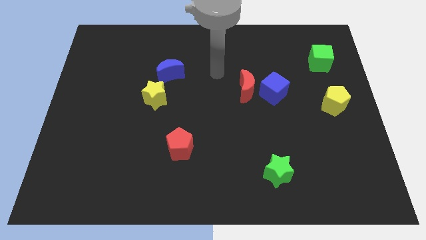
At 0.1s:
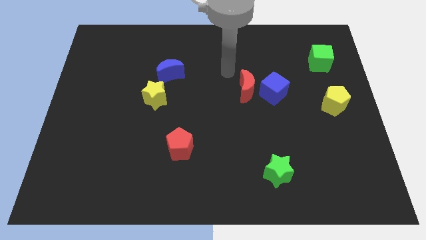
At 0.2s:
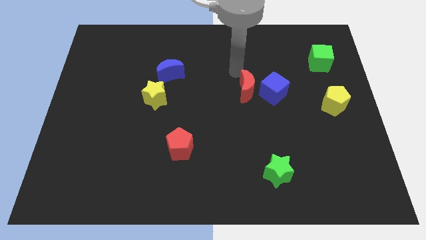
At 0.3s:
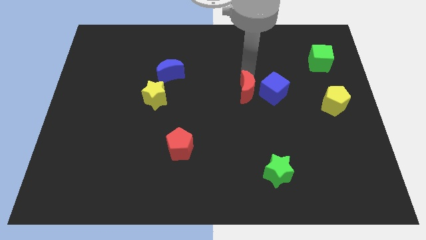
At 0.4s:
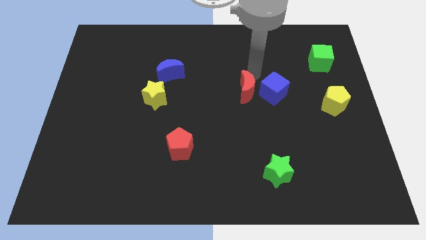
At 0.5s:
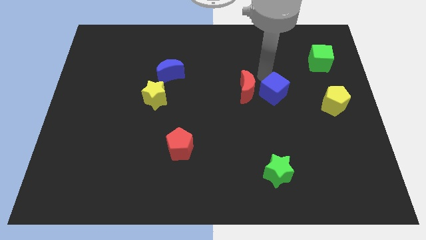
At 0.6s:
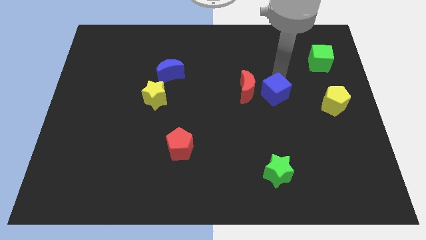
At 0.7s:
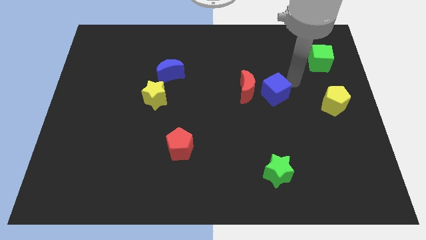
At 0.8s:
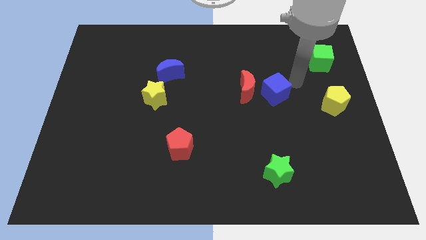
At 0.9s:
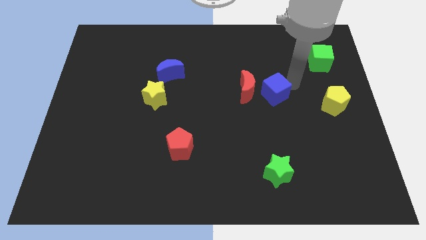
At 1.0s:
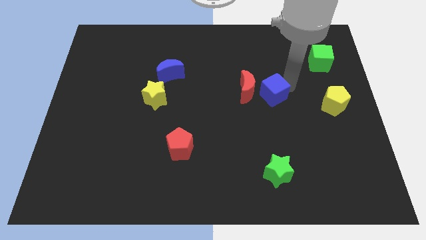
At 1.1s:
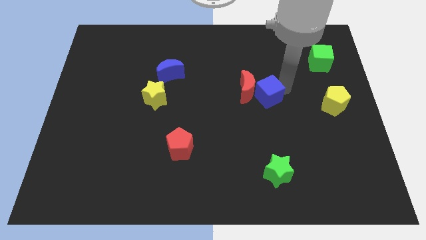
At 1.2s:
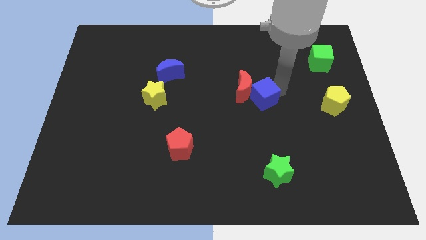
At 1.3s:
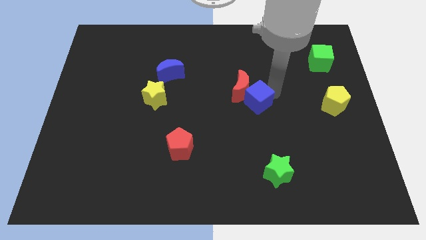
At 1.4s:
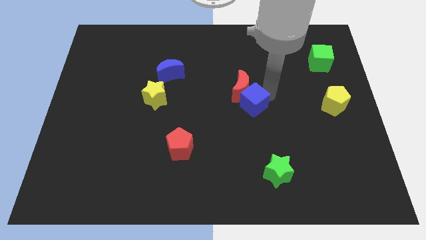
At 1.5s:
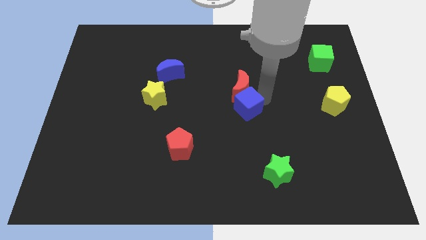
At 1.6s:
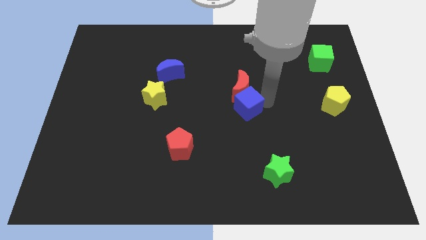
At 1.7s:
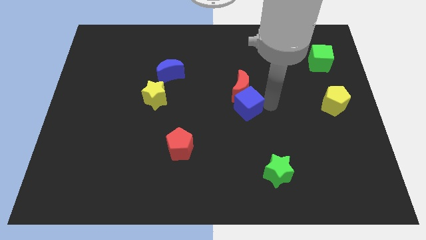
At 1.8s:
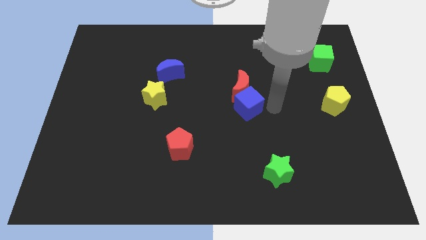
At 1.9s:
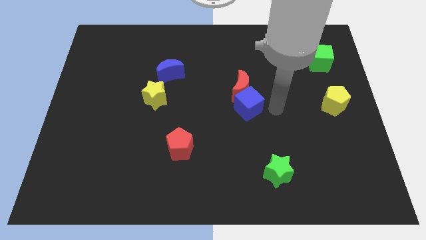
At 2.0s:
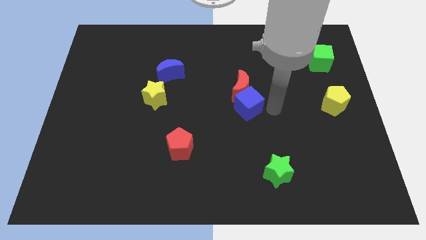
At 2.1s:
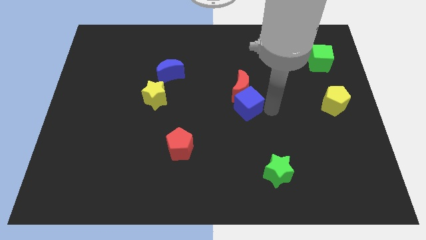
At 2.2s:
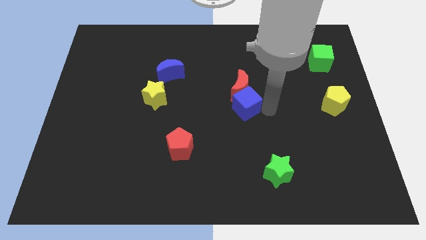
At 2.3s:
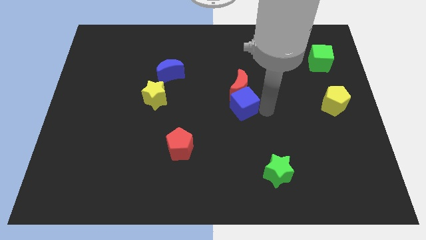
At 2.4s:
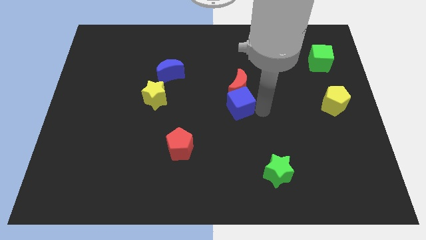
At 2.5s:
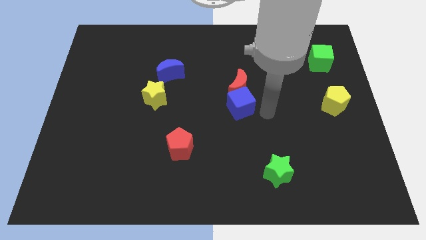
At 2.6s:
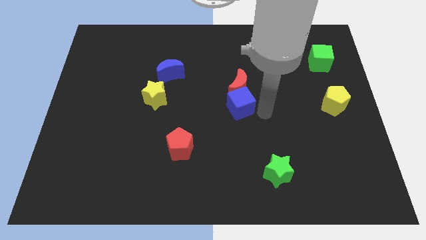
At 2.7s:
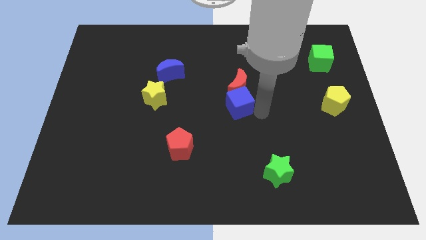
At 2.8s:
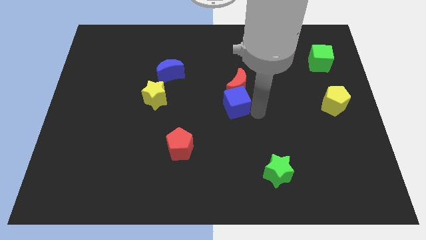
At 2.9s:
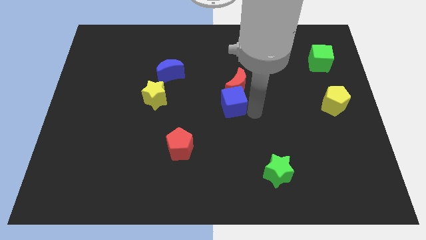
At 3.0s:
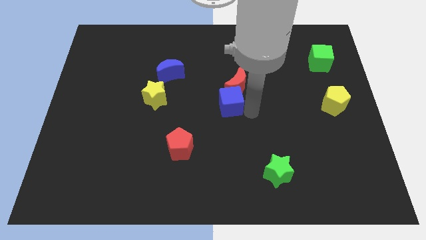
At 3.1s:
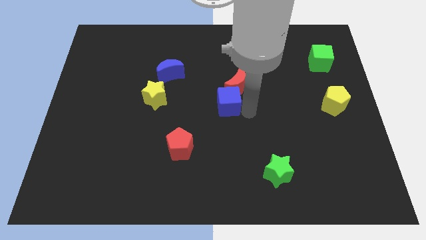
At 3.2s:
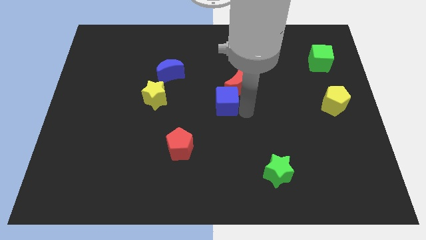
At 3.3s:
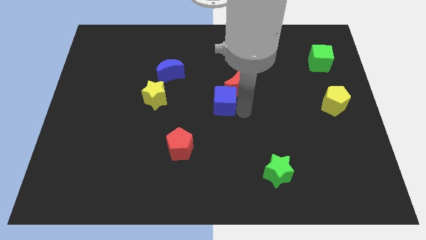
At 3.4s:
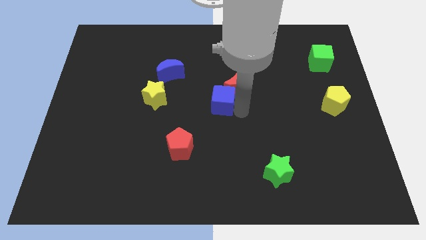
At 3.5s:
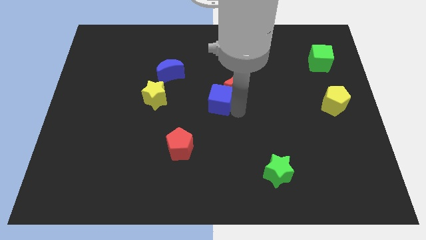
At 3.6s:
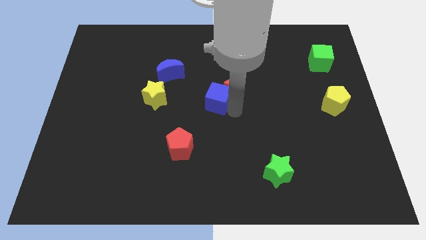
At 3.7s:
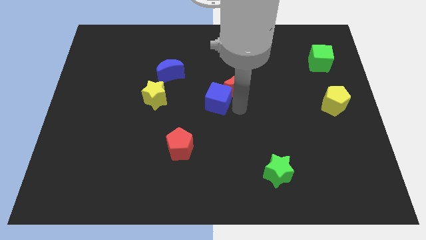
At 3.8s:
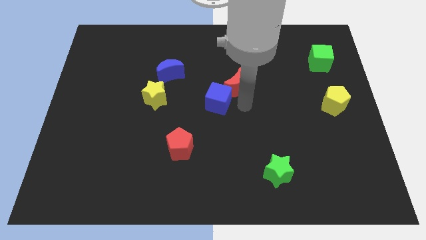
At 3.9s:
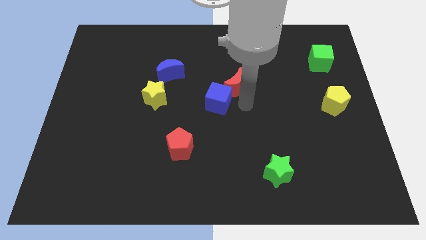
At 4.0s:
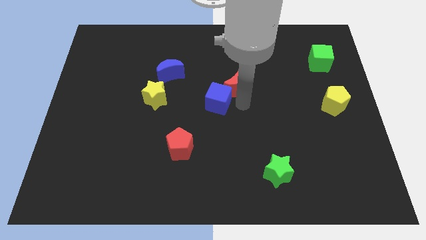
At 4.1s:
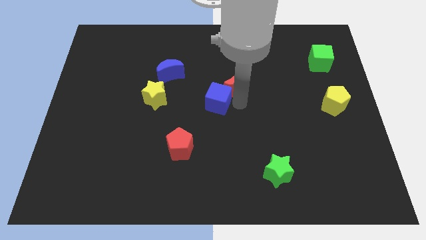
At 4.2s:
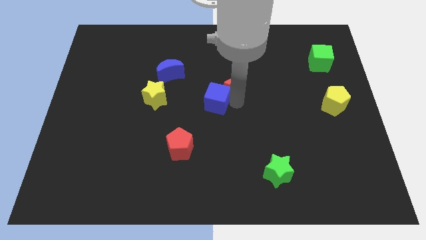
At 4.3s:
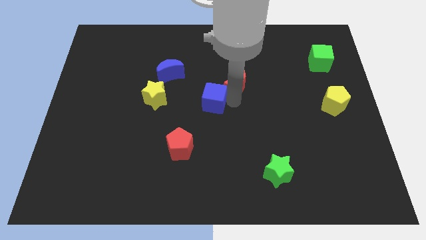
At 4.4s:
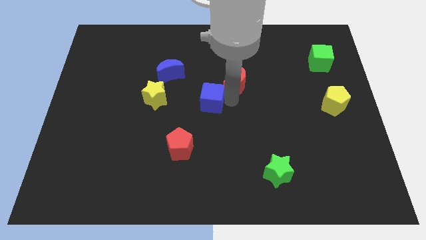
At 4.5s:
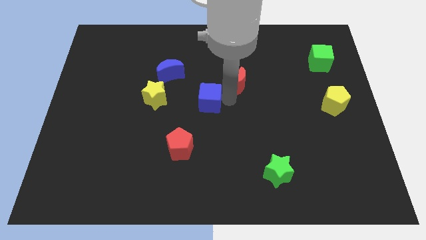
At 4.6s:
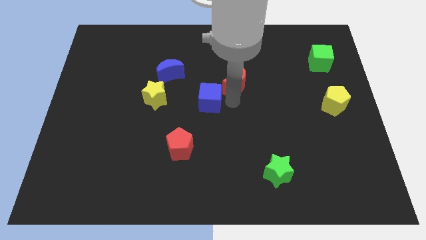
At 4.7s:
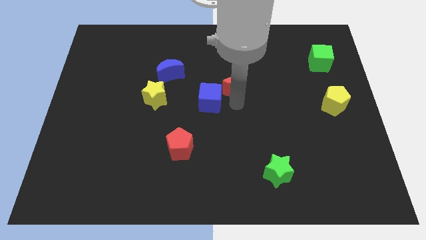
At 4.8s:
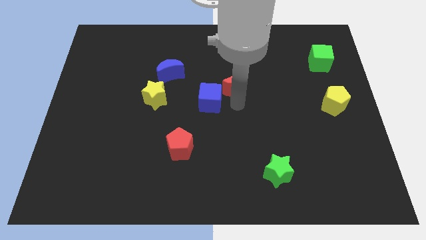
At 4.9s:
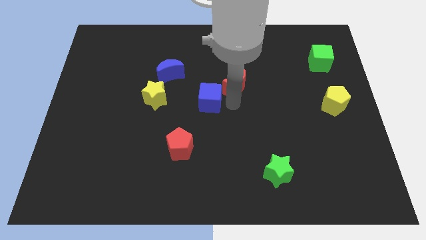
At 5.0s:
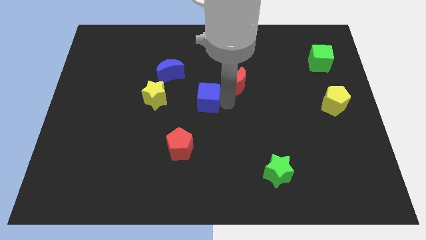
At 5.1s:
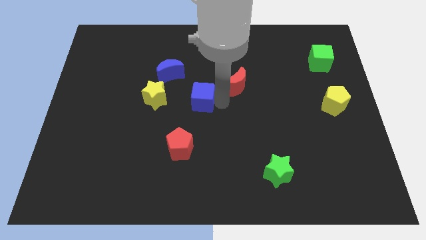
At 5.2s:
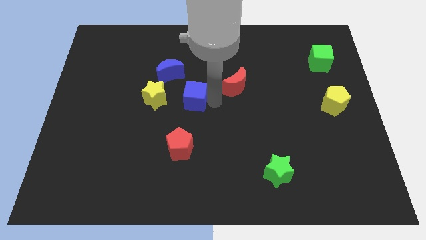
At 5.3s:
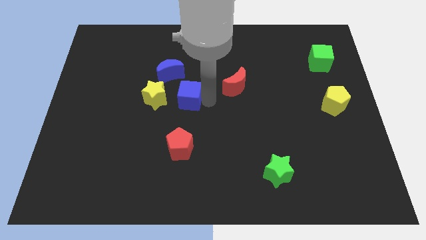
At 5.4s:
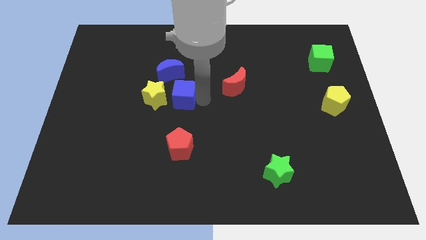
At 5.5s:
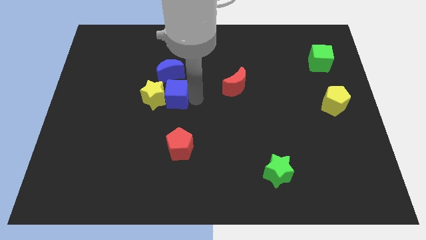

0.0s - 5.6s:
push the blue cube to the yellow star
